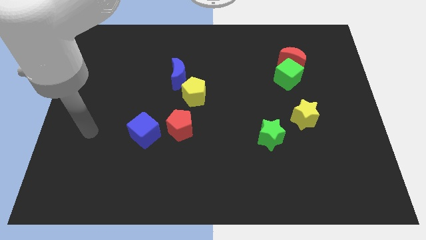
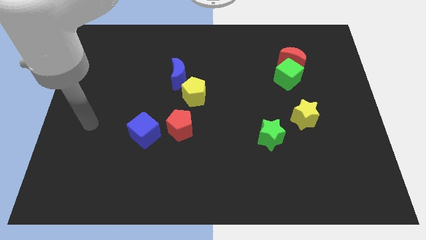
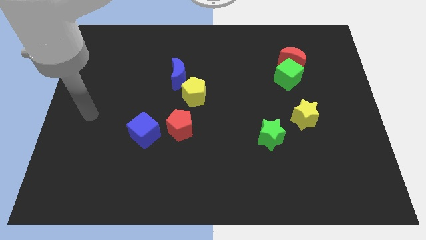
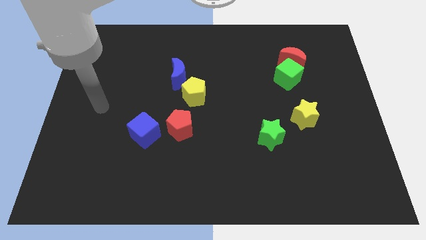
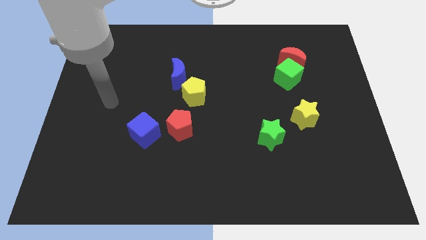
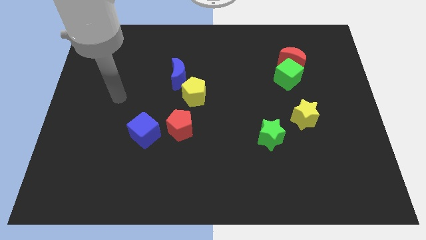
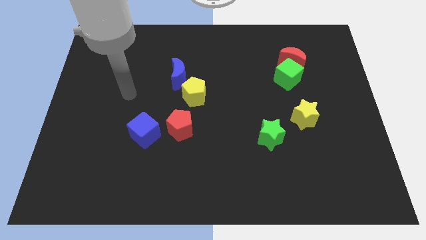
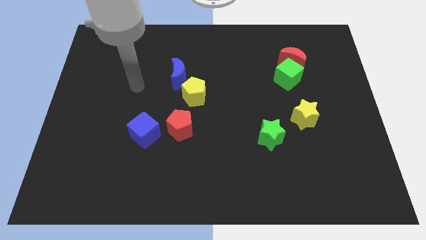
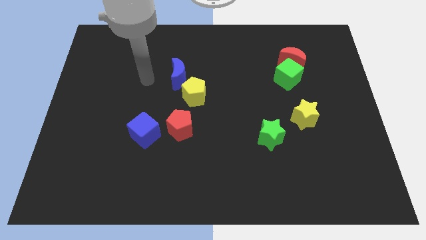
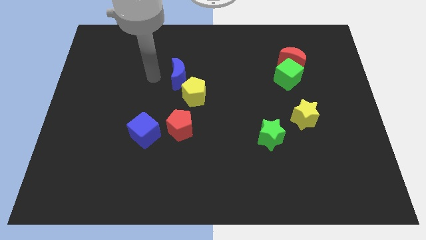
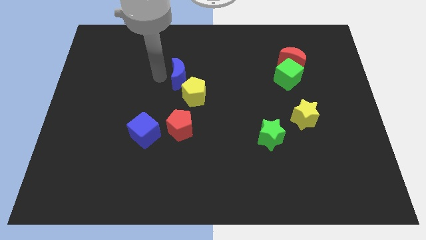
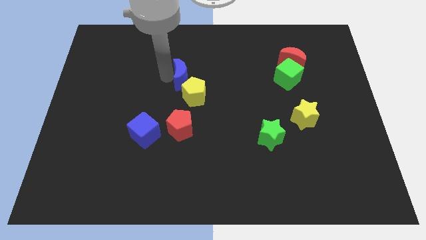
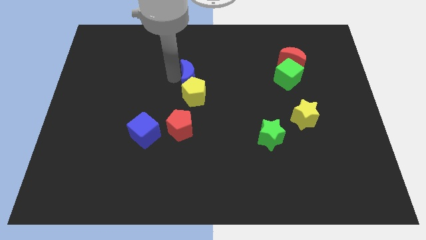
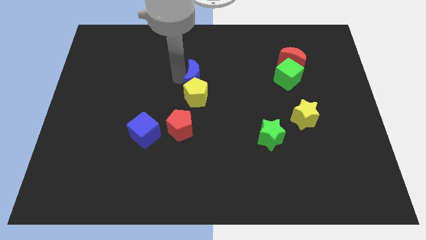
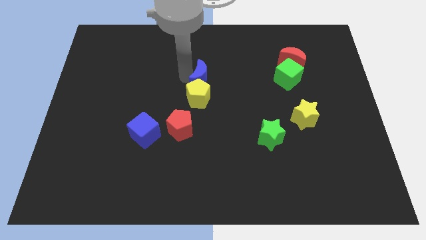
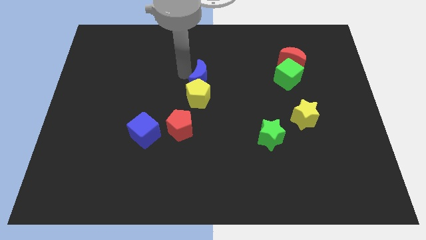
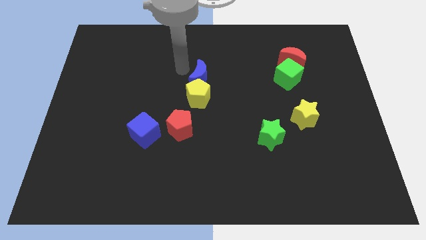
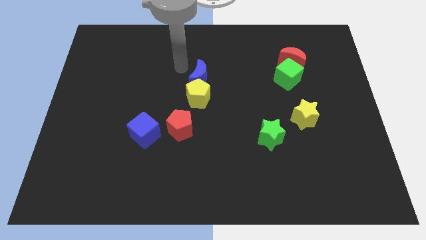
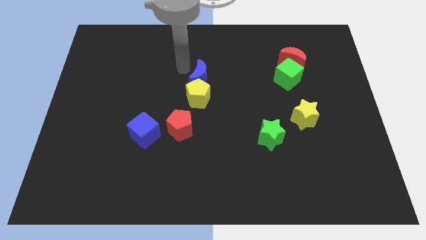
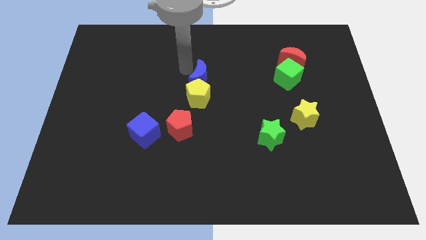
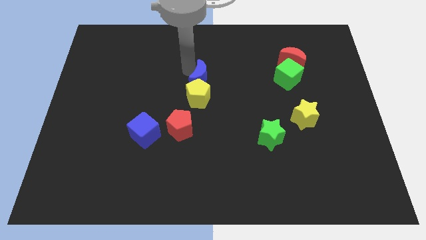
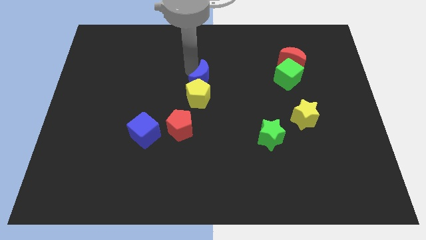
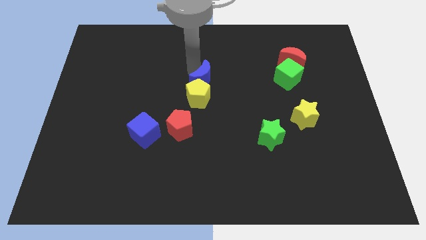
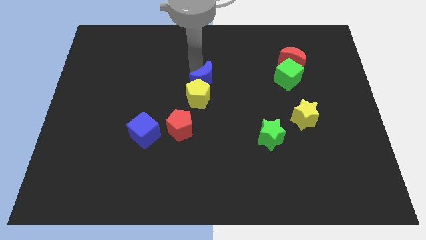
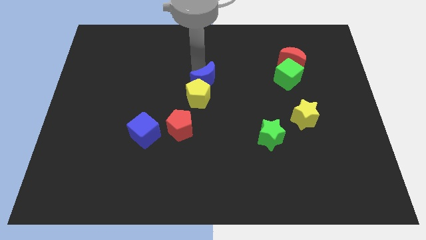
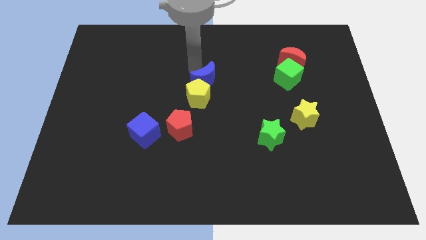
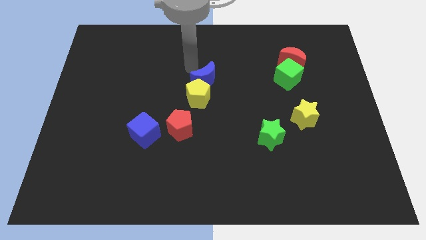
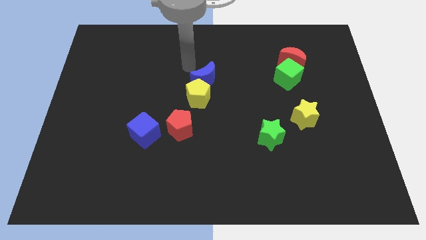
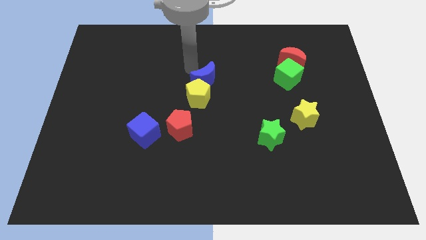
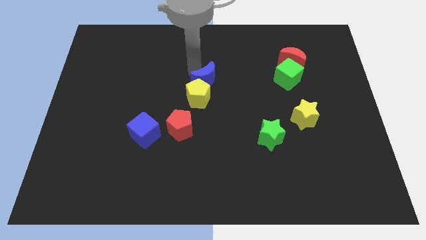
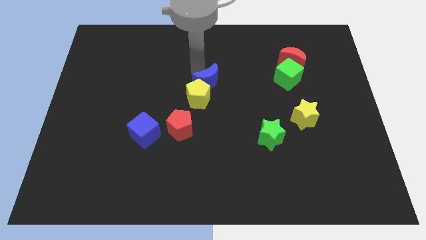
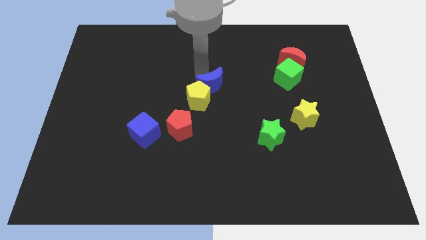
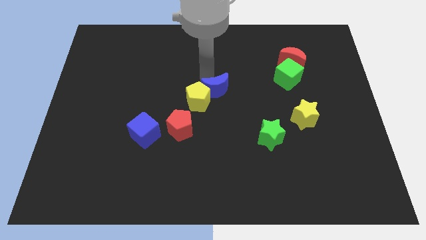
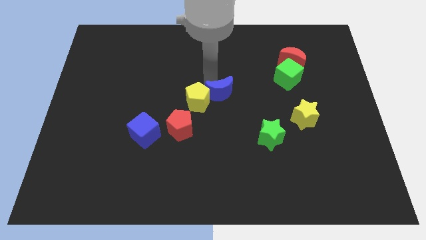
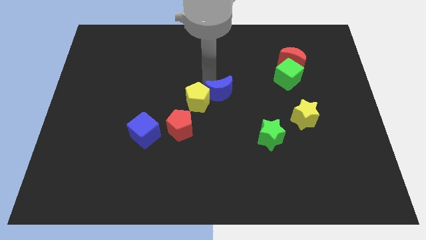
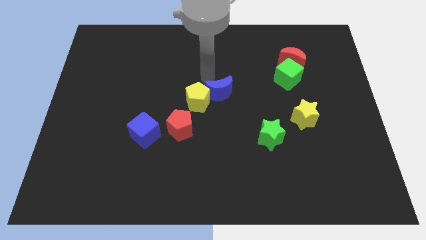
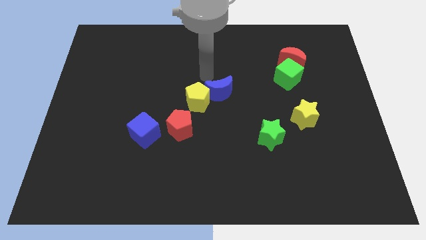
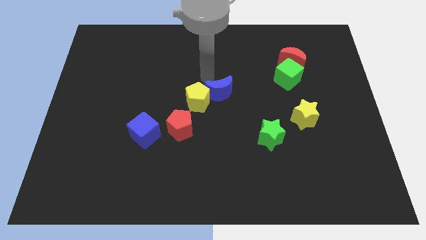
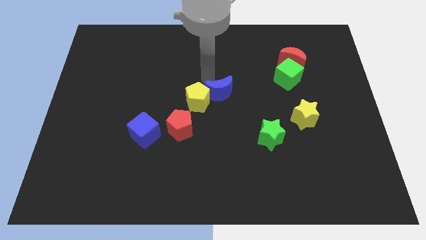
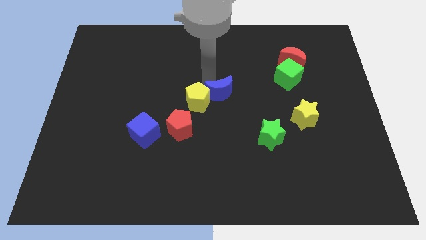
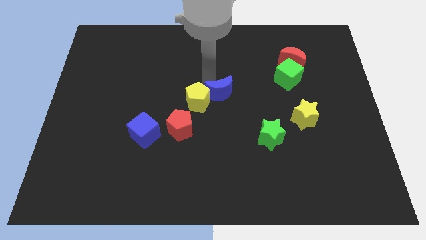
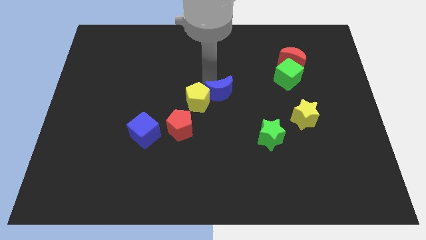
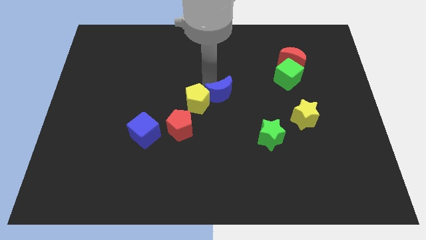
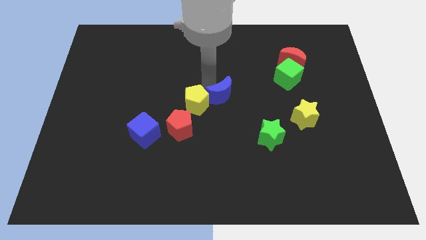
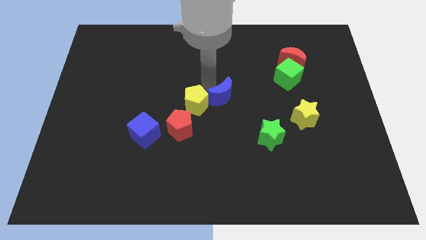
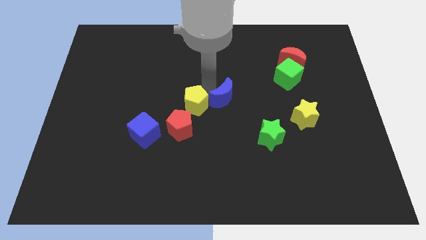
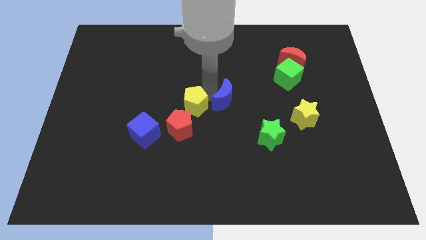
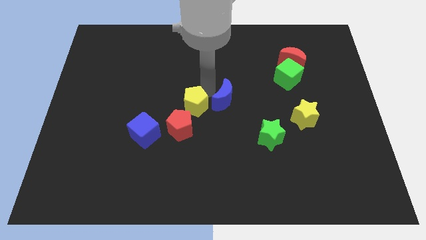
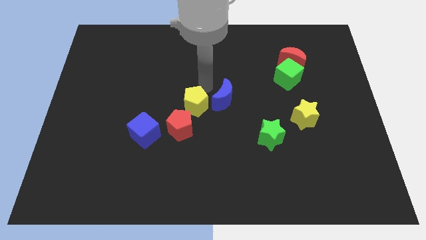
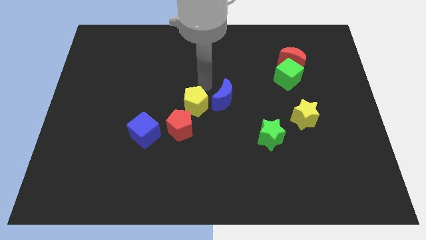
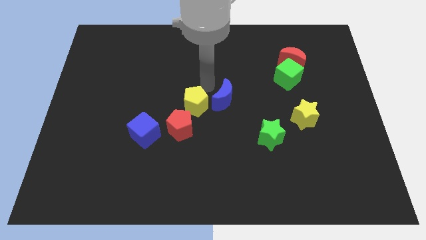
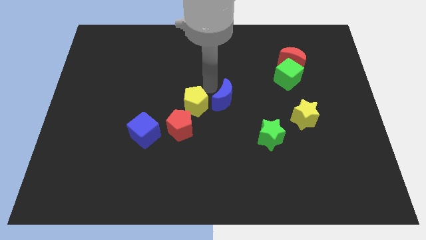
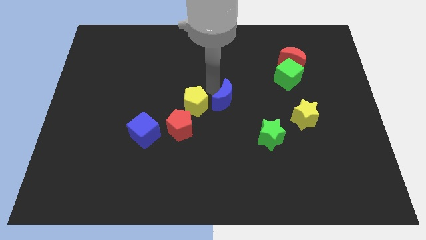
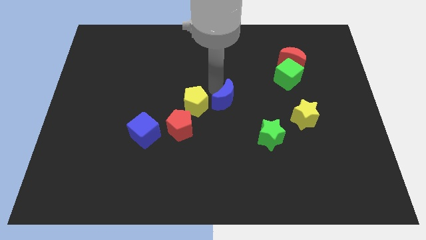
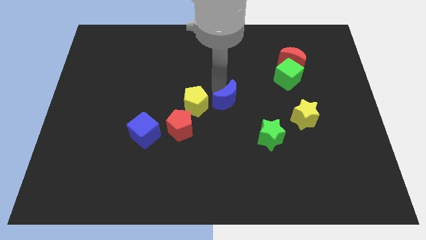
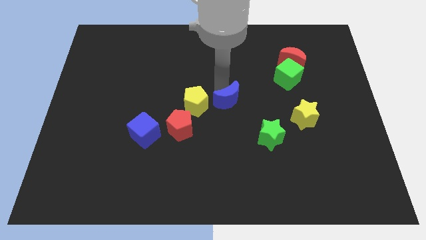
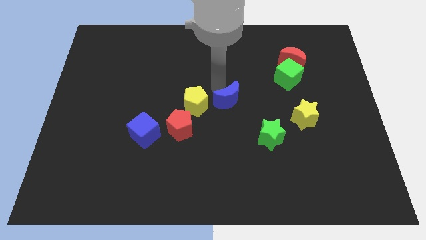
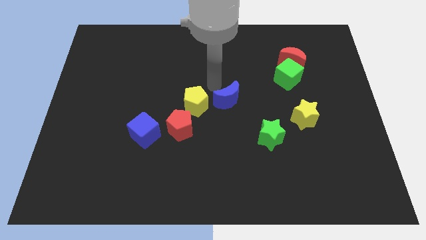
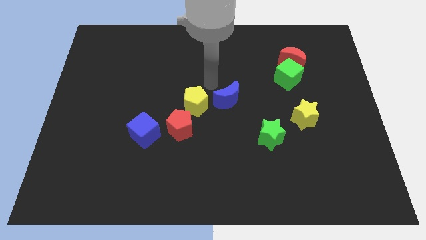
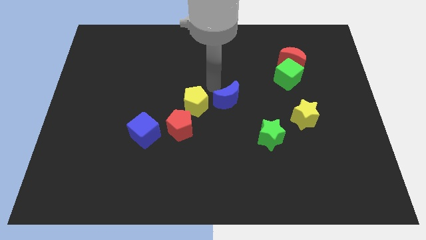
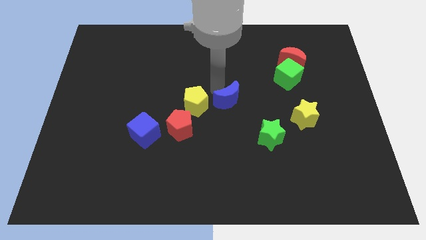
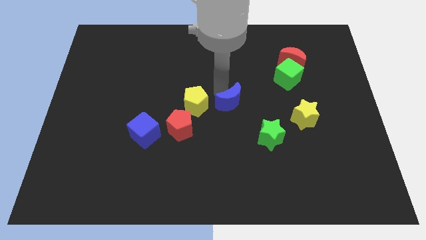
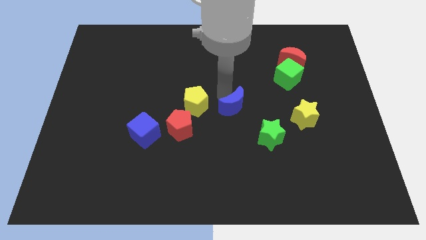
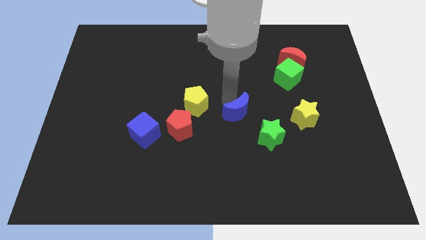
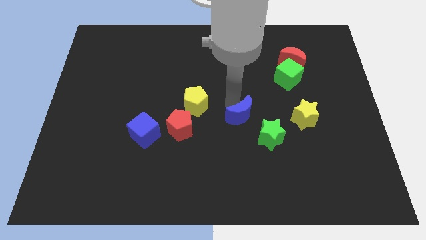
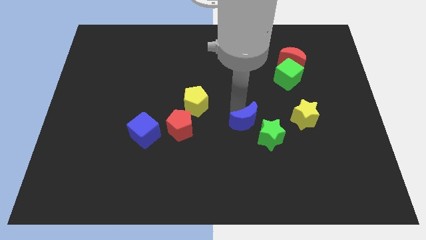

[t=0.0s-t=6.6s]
move the blue moon downwards and to the right diagonally

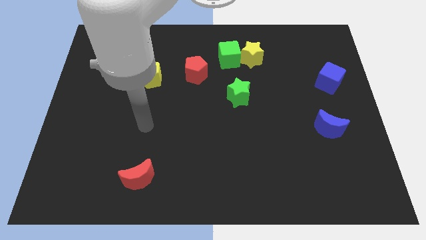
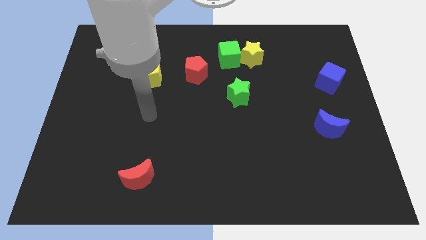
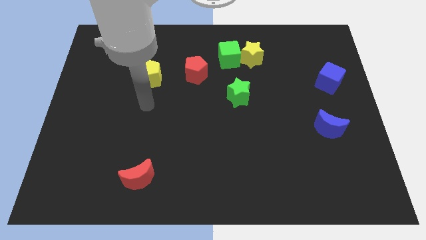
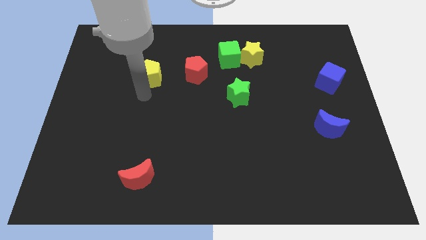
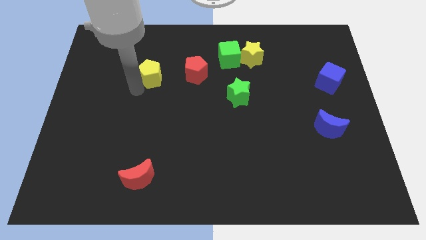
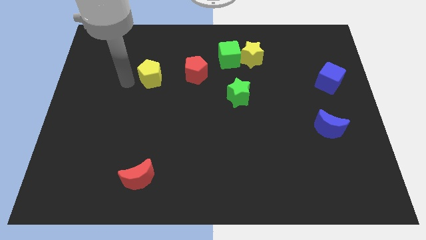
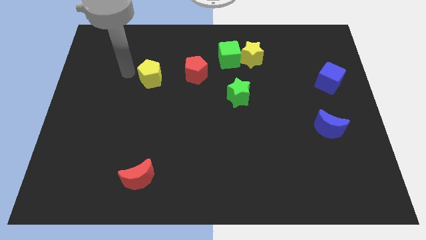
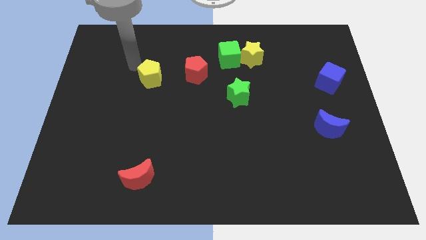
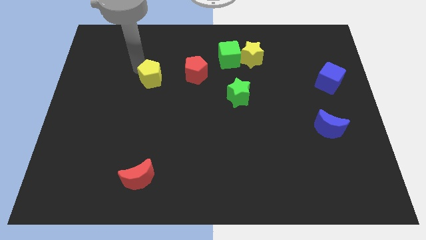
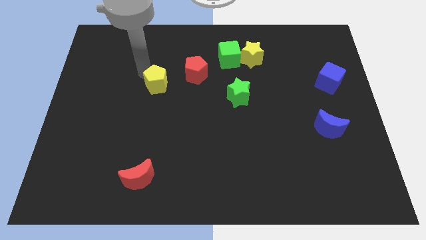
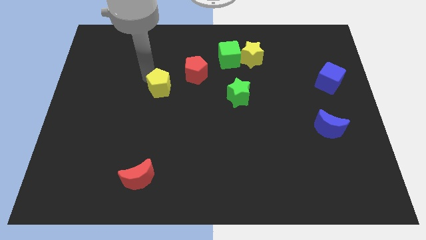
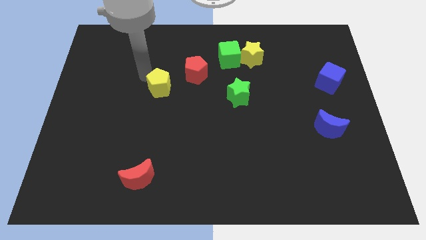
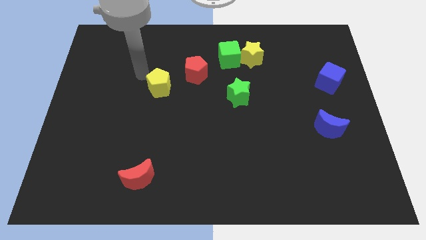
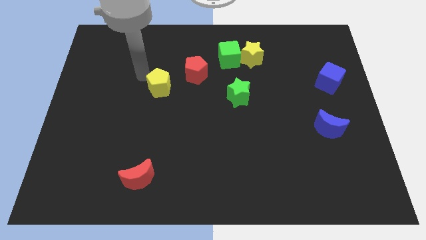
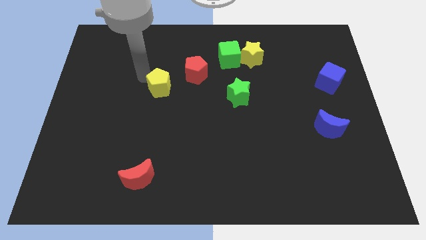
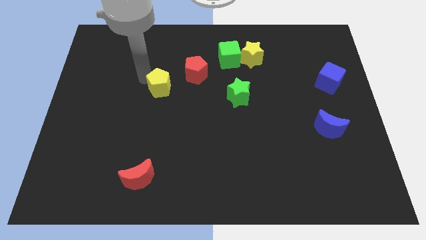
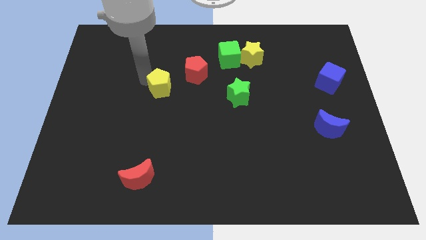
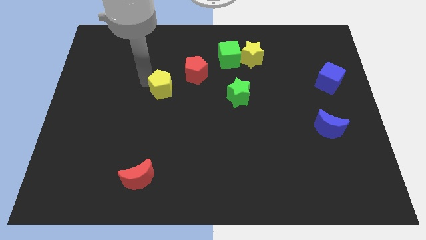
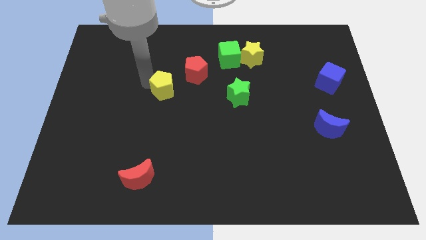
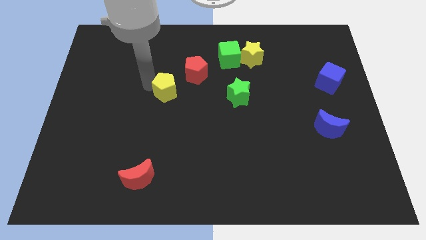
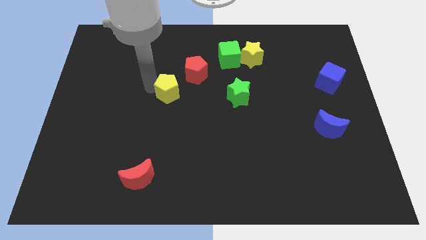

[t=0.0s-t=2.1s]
move the yellow pentagon a little bit downwards and to the right
